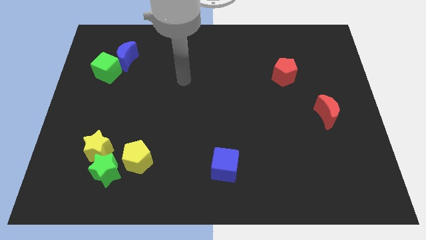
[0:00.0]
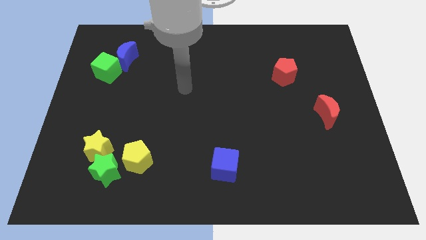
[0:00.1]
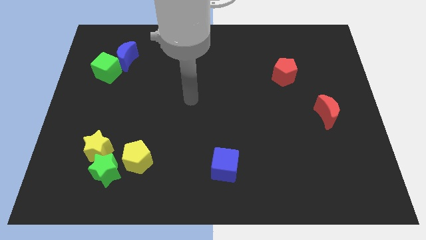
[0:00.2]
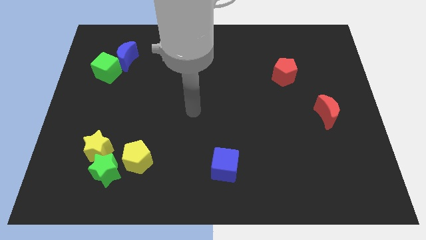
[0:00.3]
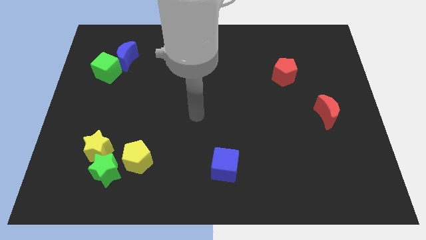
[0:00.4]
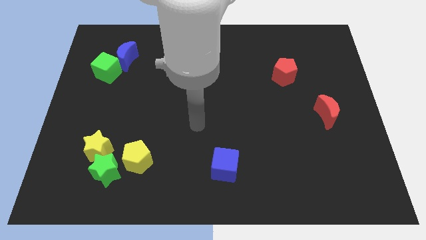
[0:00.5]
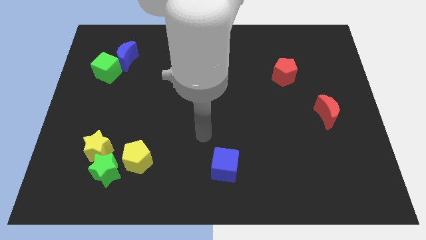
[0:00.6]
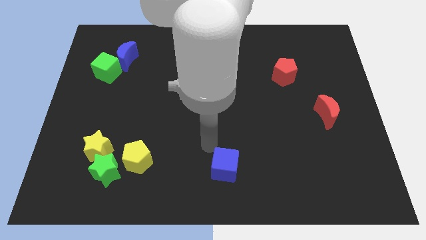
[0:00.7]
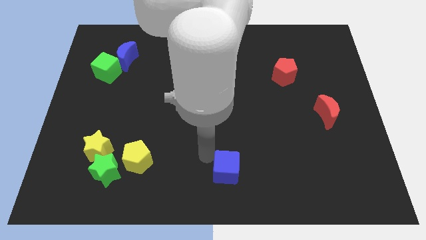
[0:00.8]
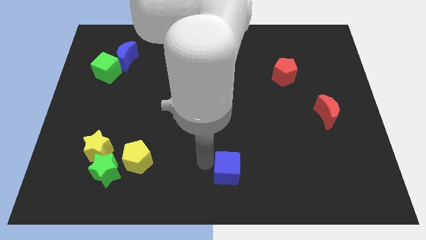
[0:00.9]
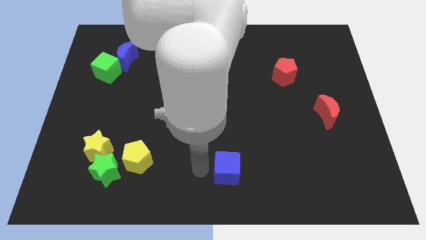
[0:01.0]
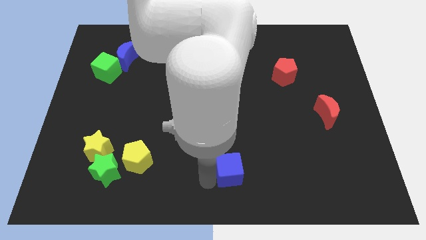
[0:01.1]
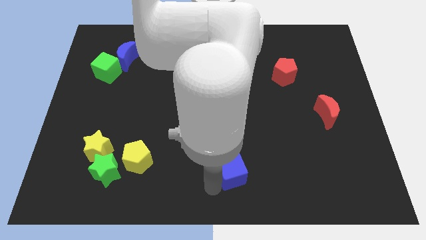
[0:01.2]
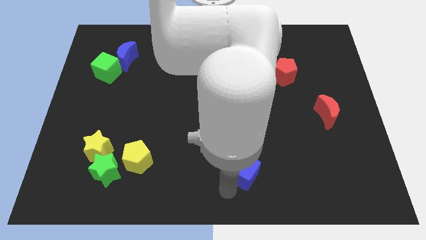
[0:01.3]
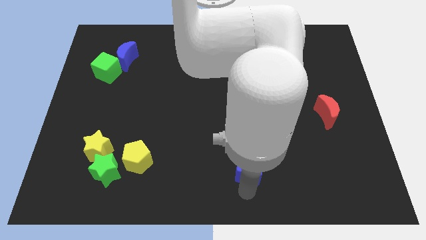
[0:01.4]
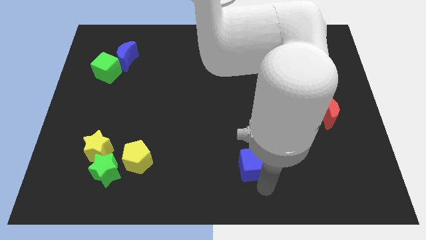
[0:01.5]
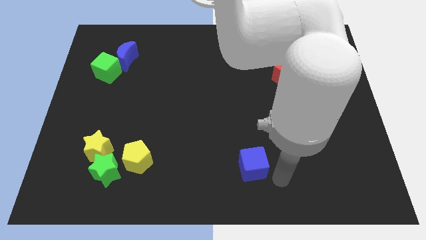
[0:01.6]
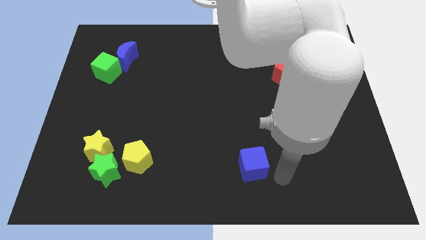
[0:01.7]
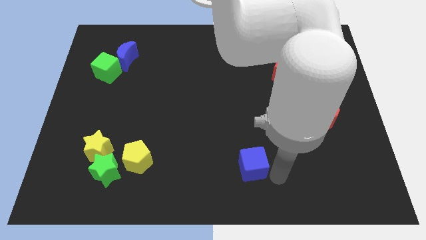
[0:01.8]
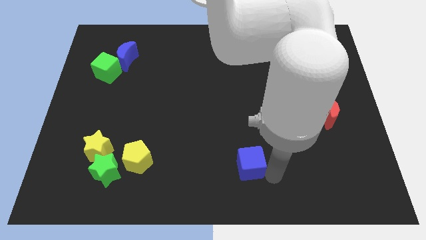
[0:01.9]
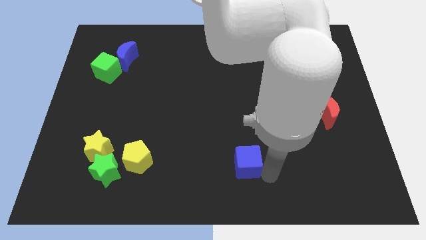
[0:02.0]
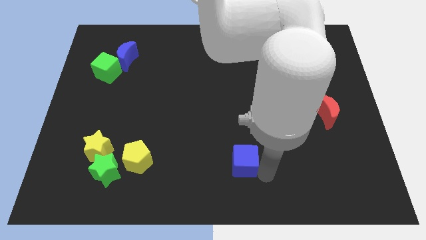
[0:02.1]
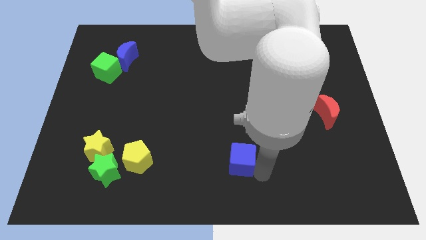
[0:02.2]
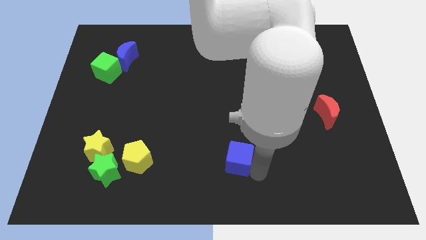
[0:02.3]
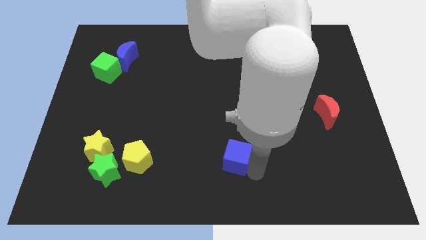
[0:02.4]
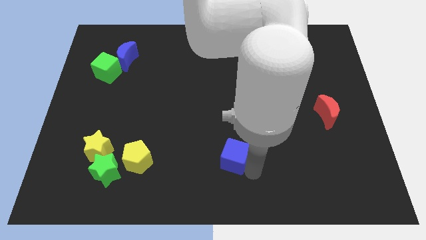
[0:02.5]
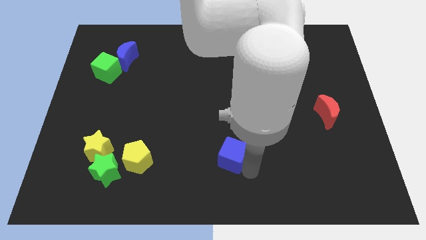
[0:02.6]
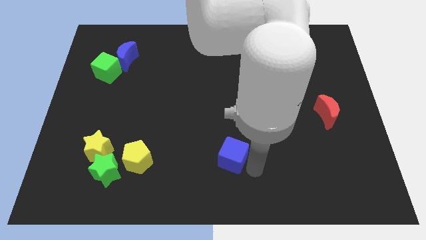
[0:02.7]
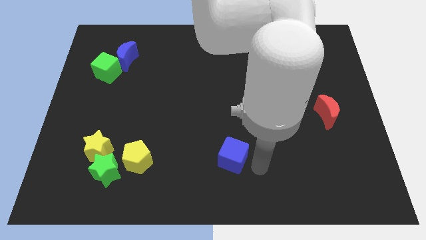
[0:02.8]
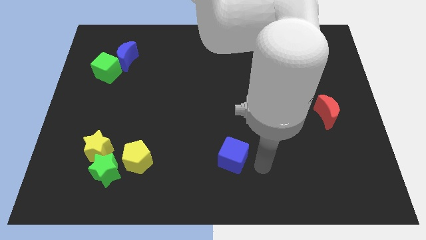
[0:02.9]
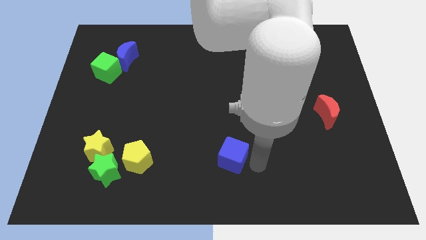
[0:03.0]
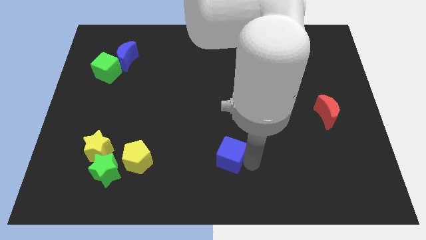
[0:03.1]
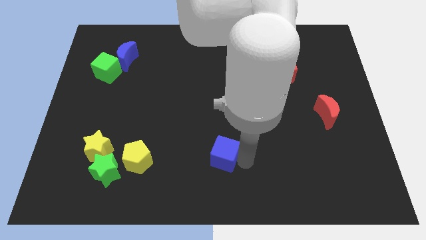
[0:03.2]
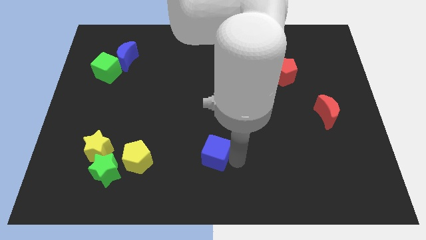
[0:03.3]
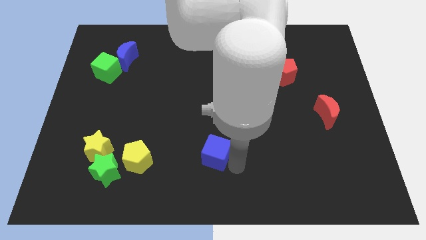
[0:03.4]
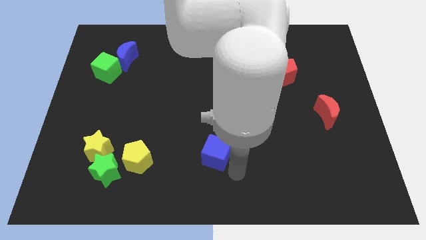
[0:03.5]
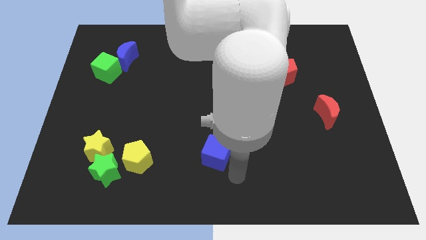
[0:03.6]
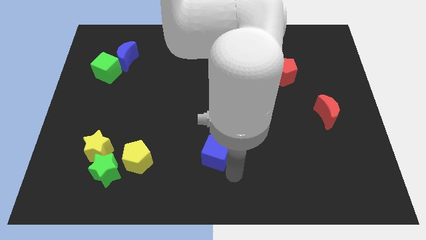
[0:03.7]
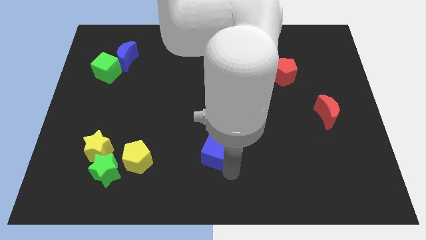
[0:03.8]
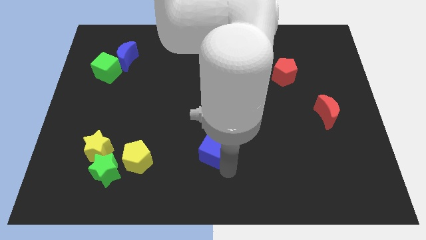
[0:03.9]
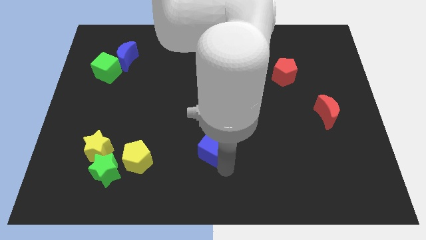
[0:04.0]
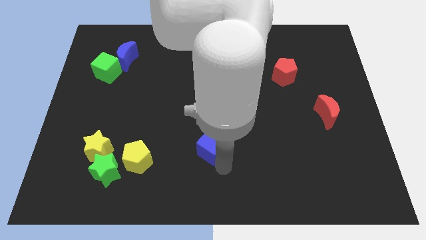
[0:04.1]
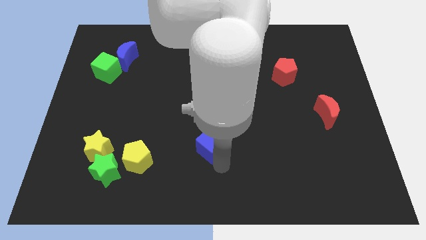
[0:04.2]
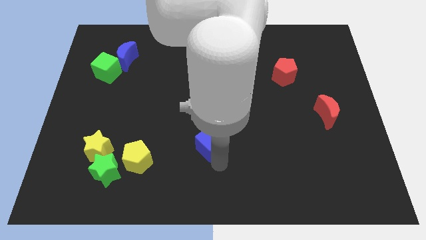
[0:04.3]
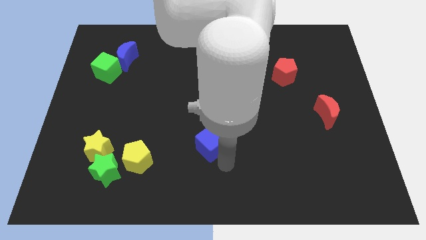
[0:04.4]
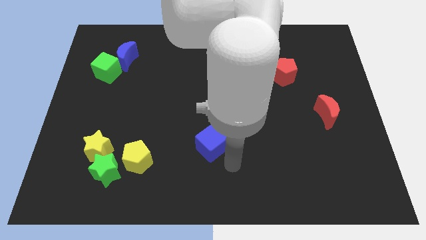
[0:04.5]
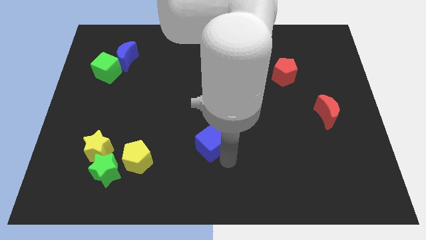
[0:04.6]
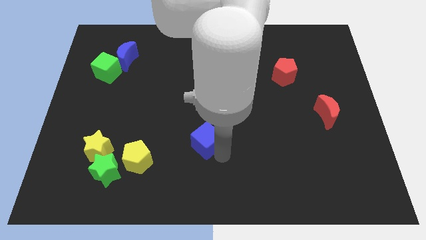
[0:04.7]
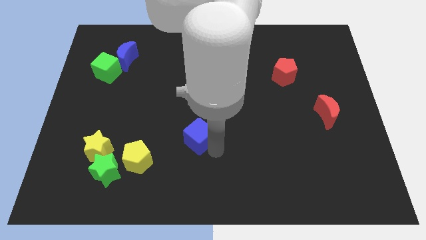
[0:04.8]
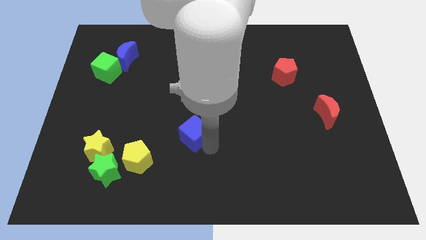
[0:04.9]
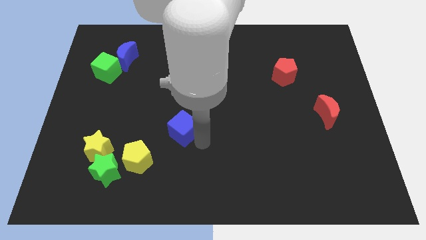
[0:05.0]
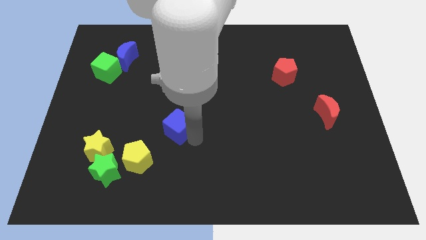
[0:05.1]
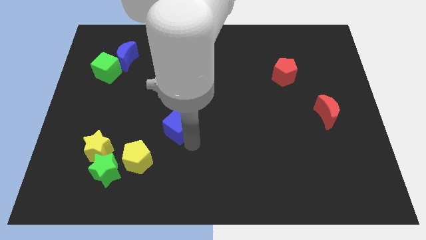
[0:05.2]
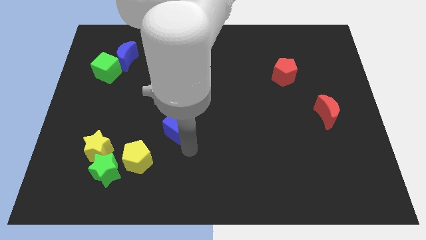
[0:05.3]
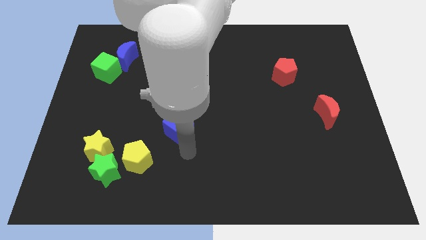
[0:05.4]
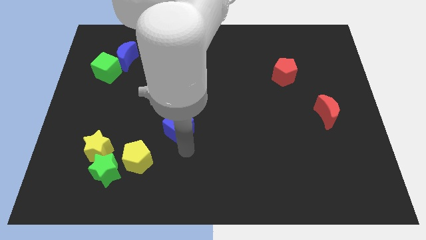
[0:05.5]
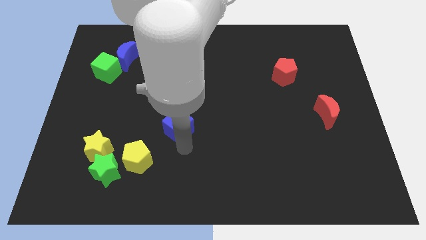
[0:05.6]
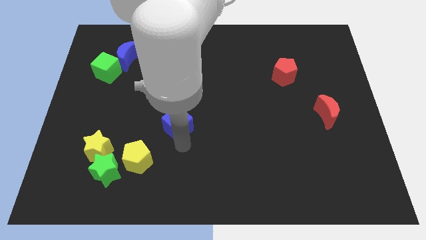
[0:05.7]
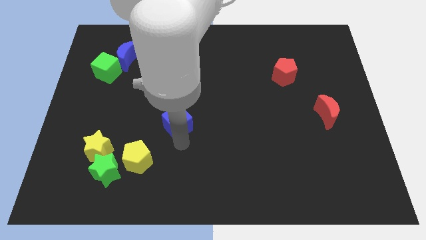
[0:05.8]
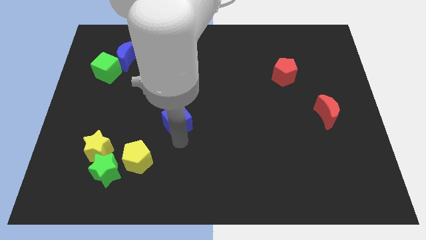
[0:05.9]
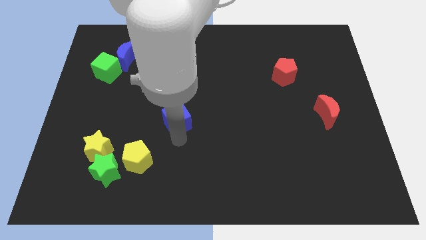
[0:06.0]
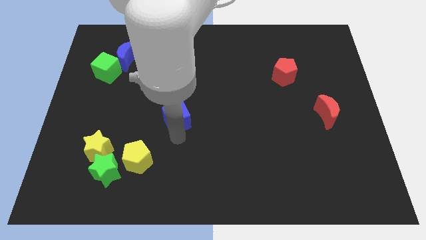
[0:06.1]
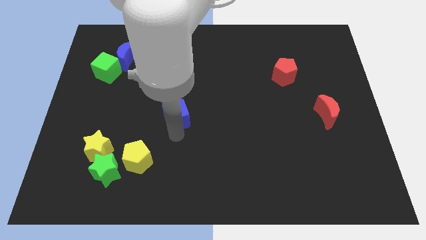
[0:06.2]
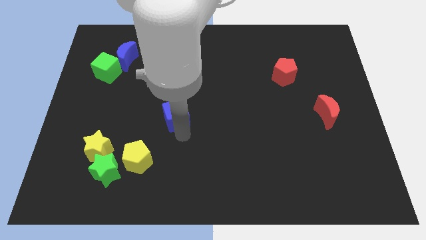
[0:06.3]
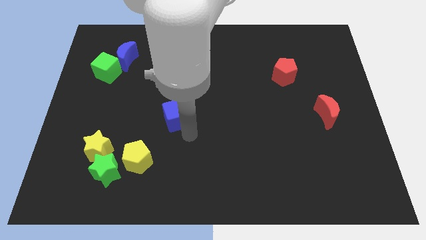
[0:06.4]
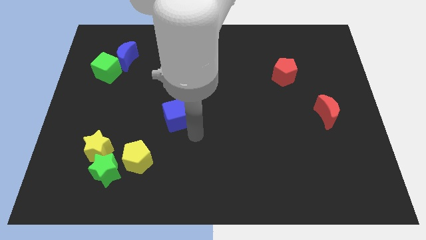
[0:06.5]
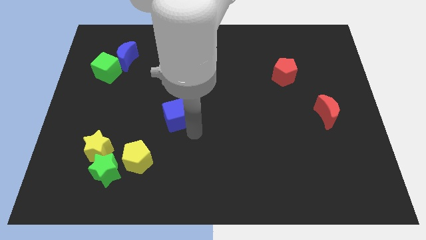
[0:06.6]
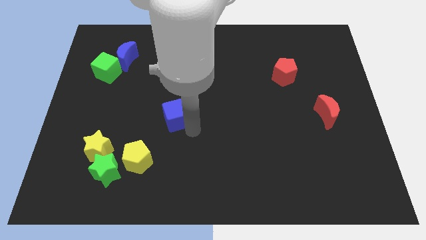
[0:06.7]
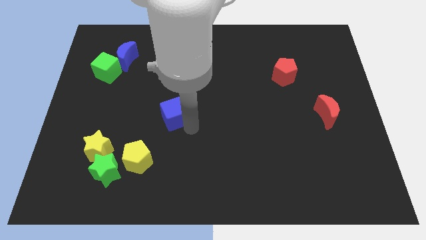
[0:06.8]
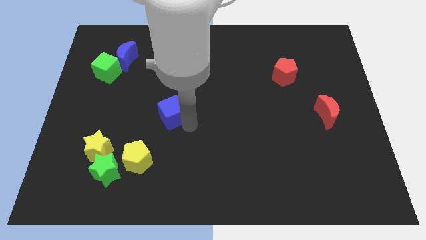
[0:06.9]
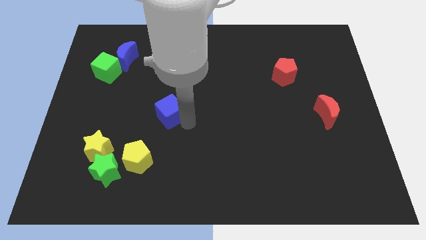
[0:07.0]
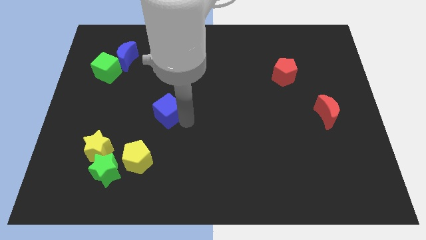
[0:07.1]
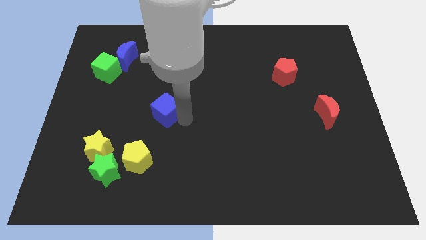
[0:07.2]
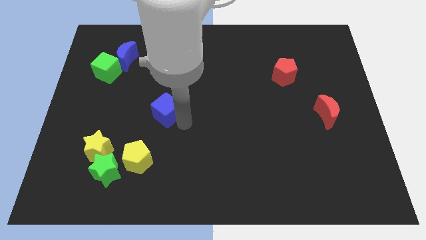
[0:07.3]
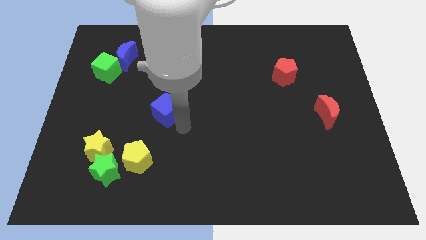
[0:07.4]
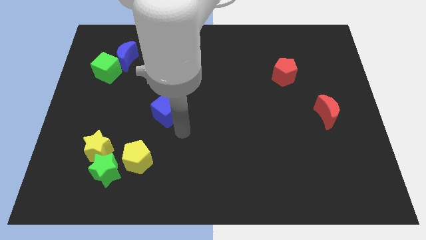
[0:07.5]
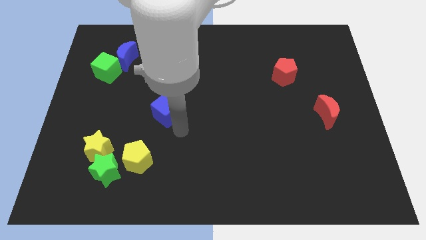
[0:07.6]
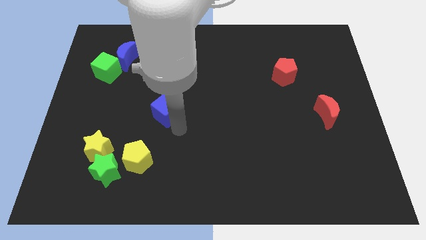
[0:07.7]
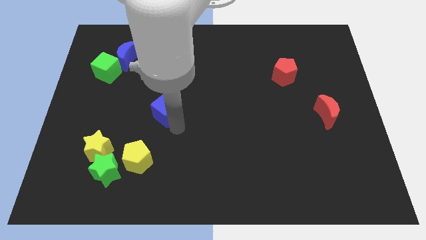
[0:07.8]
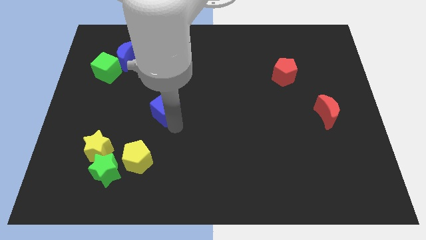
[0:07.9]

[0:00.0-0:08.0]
slide the blue cube up and then left

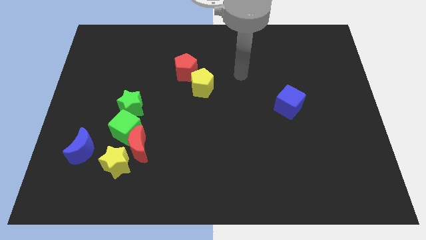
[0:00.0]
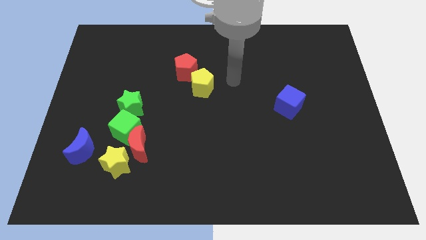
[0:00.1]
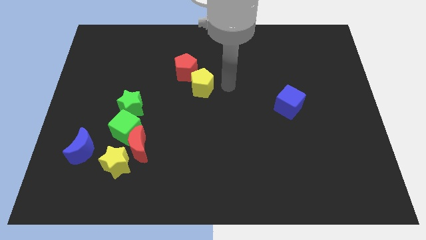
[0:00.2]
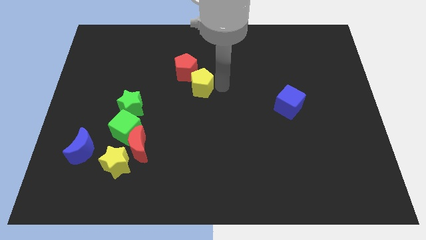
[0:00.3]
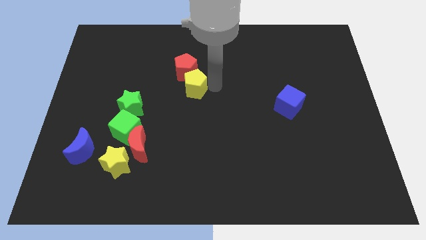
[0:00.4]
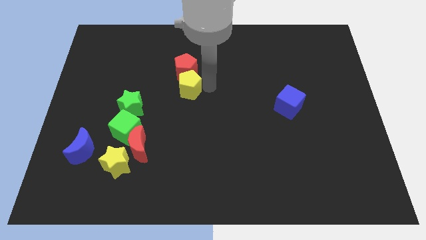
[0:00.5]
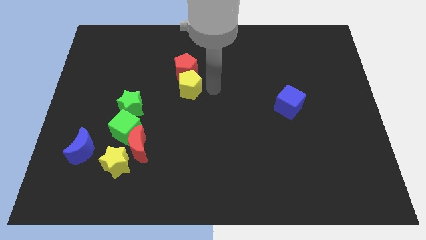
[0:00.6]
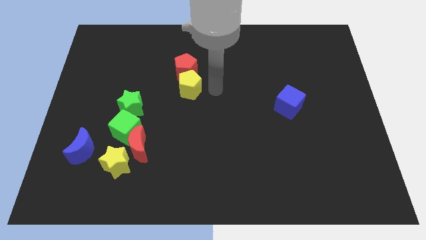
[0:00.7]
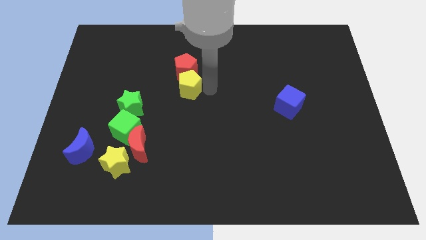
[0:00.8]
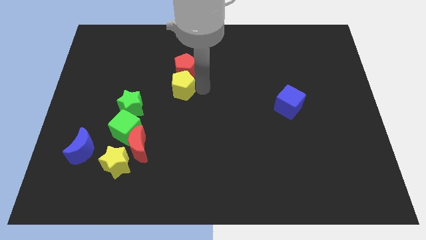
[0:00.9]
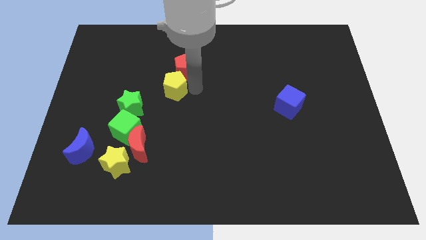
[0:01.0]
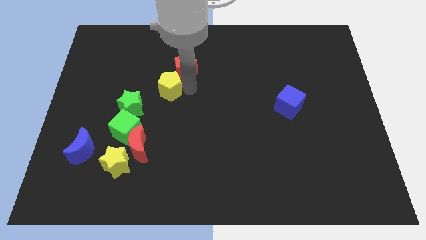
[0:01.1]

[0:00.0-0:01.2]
move the yellow pentagon a little bit to the left
